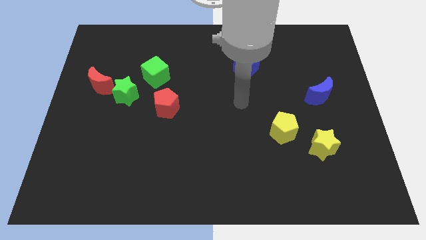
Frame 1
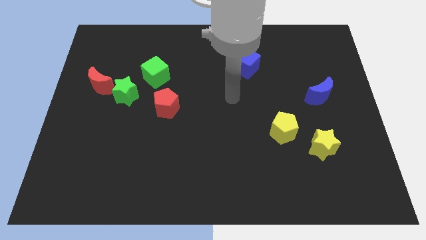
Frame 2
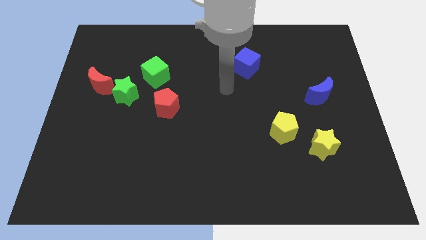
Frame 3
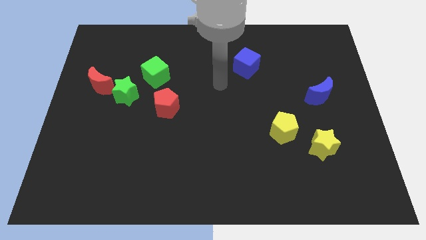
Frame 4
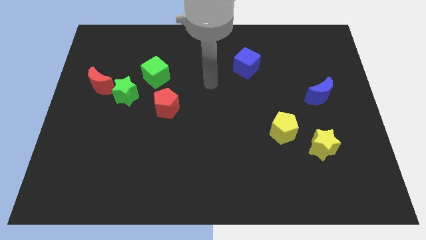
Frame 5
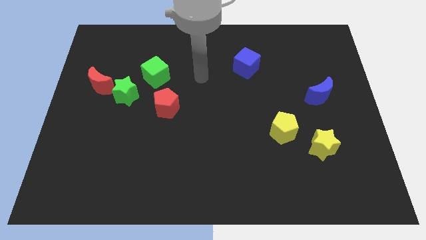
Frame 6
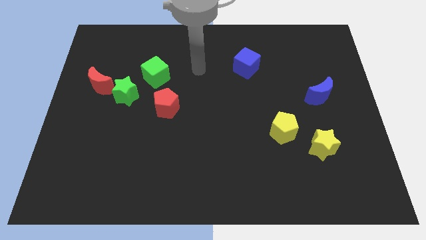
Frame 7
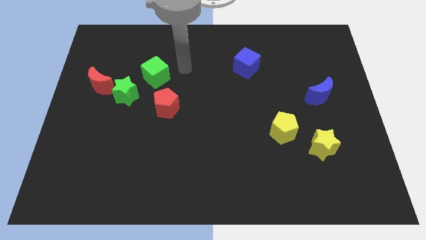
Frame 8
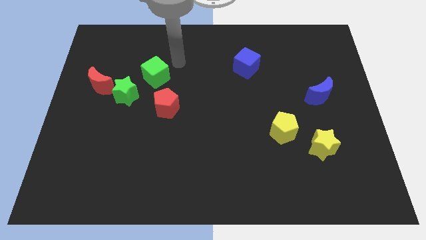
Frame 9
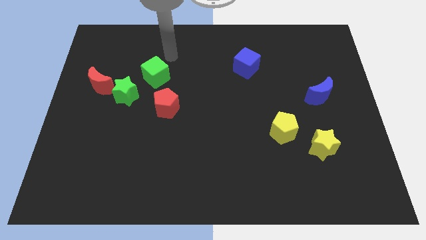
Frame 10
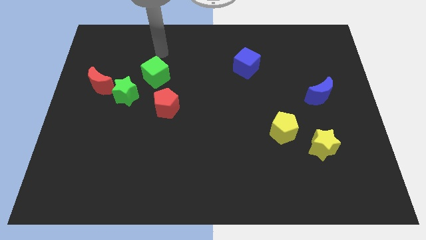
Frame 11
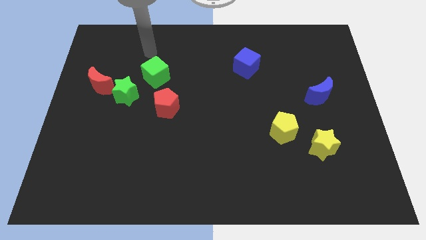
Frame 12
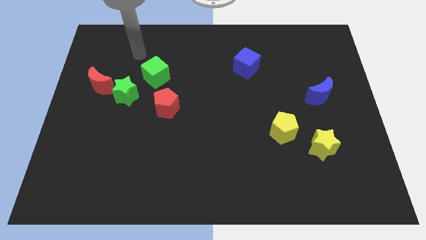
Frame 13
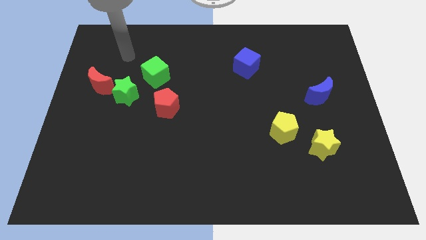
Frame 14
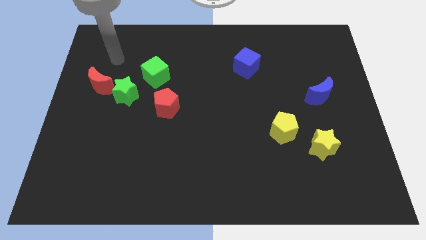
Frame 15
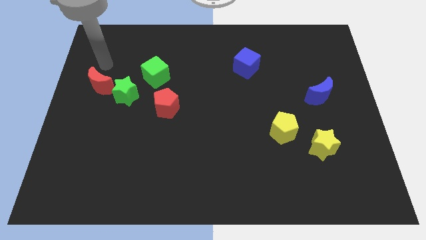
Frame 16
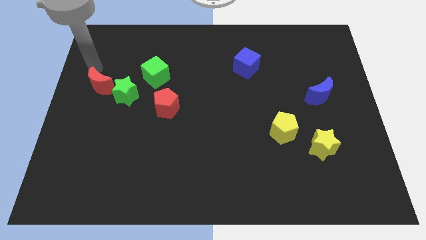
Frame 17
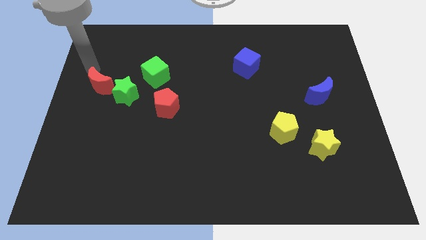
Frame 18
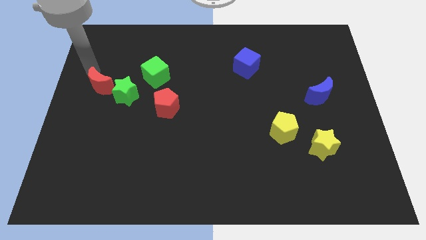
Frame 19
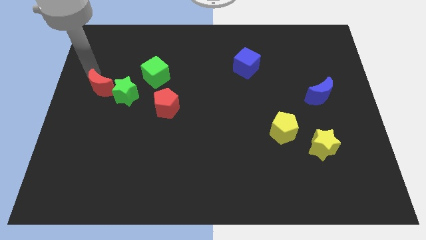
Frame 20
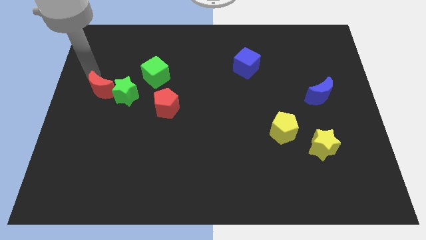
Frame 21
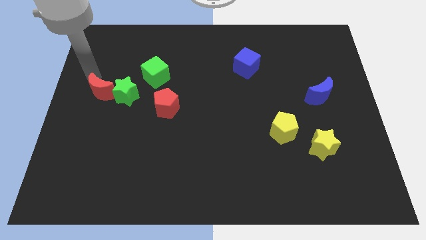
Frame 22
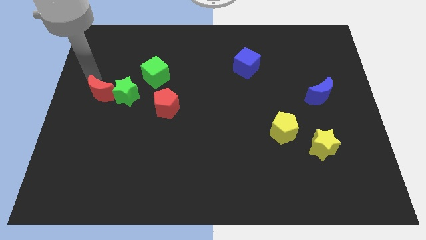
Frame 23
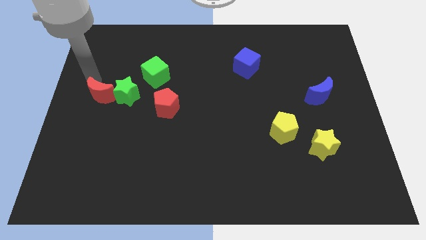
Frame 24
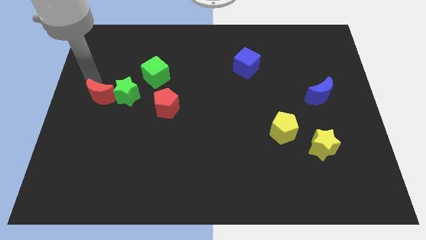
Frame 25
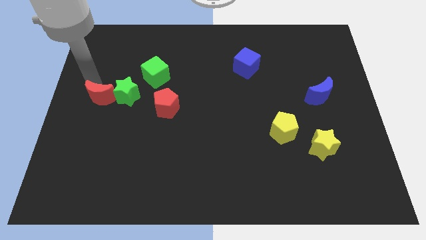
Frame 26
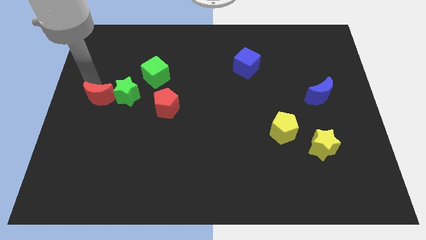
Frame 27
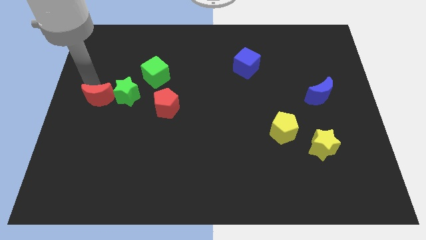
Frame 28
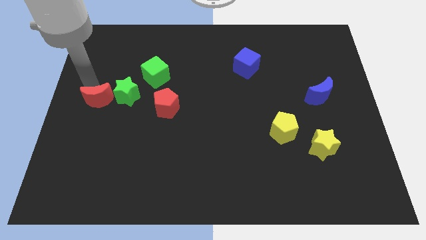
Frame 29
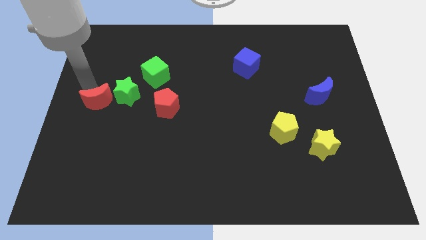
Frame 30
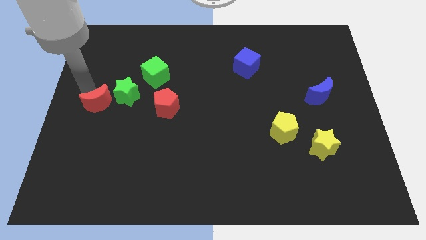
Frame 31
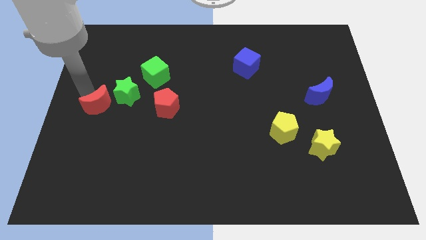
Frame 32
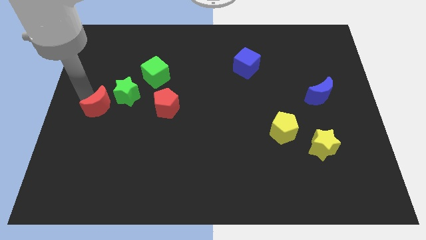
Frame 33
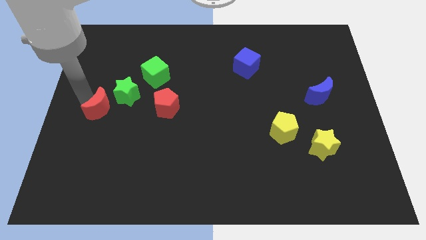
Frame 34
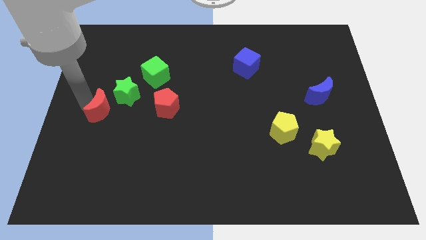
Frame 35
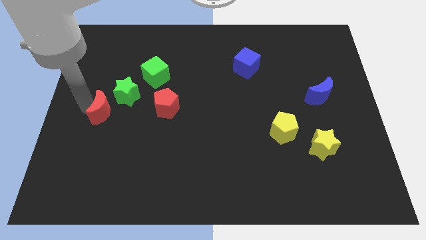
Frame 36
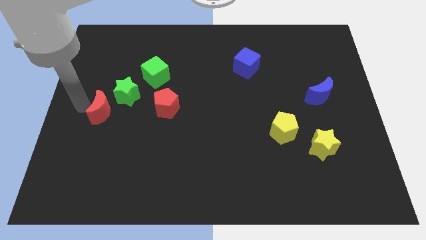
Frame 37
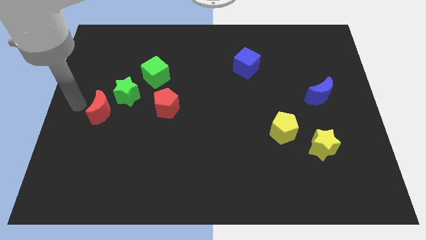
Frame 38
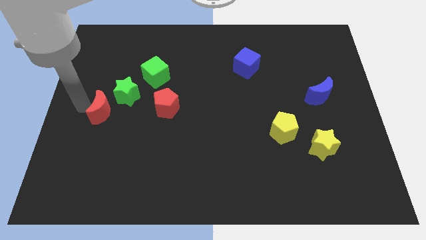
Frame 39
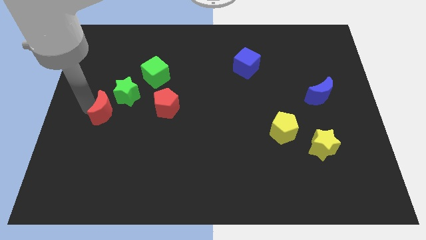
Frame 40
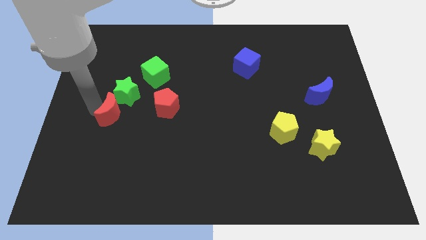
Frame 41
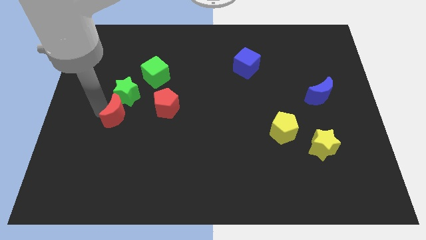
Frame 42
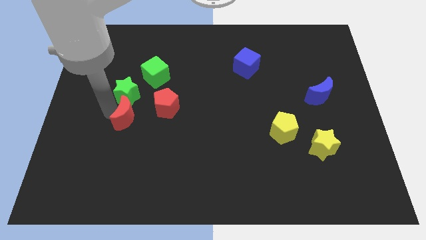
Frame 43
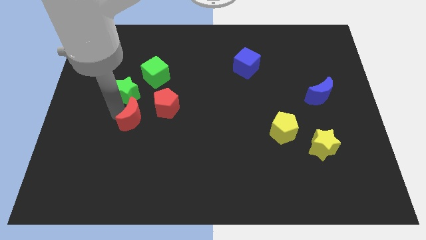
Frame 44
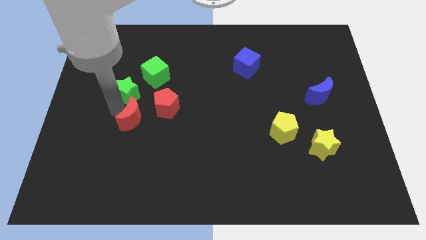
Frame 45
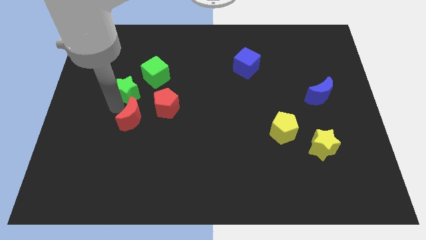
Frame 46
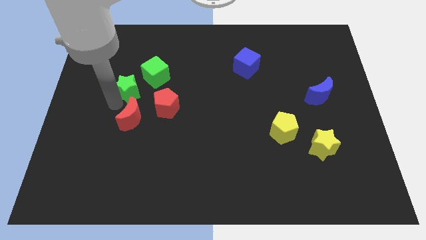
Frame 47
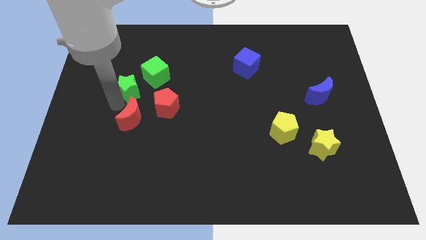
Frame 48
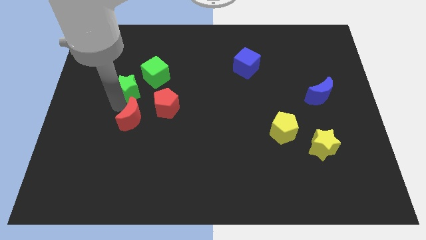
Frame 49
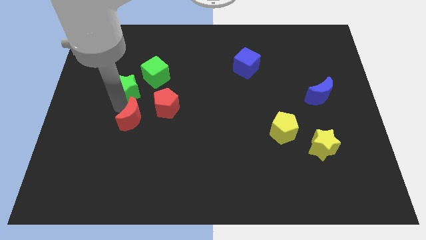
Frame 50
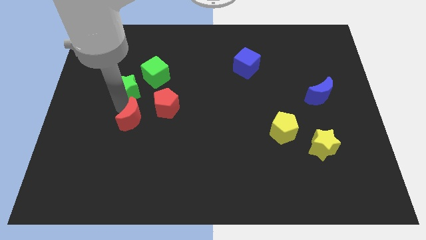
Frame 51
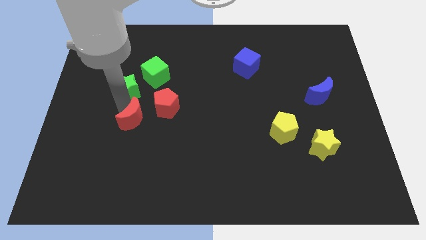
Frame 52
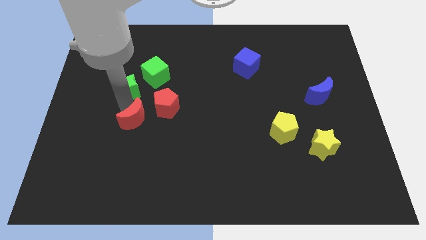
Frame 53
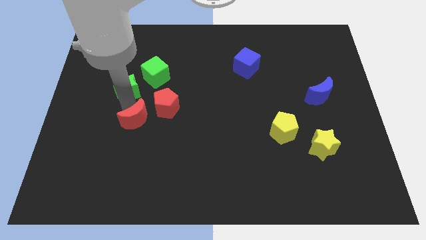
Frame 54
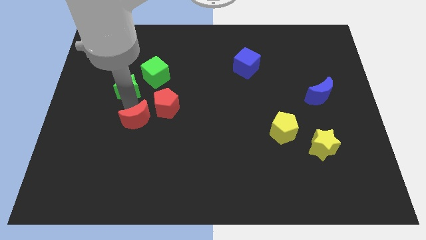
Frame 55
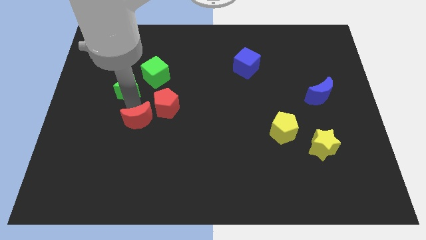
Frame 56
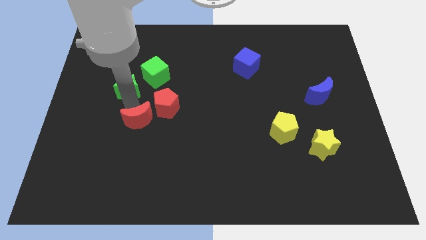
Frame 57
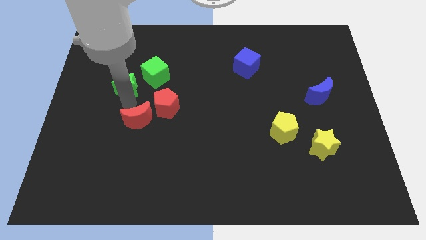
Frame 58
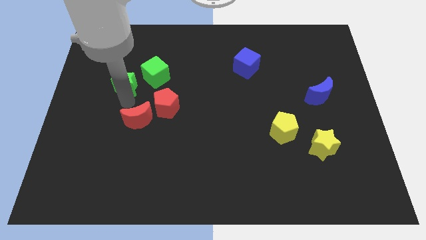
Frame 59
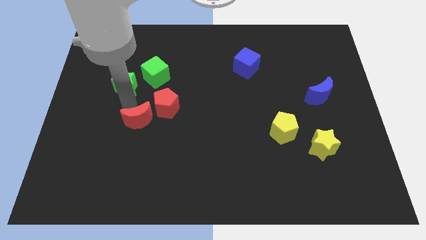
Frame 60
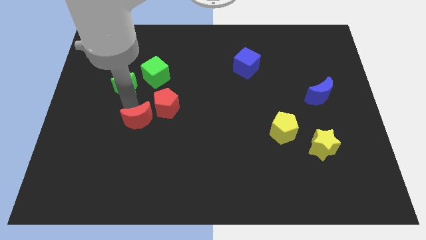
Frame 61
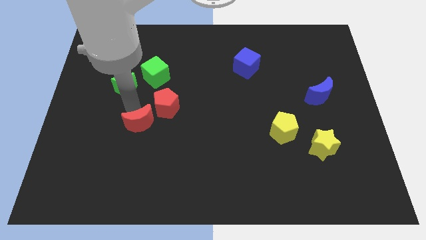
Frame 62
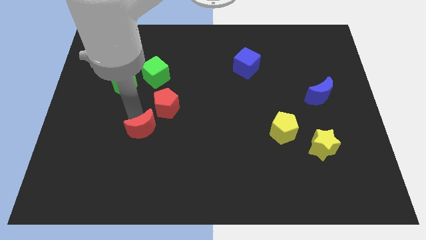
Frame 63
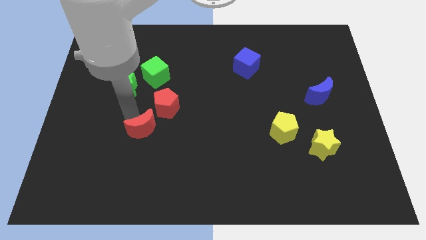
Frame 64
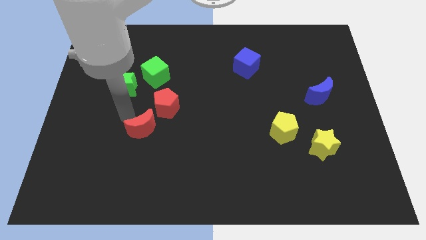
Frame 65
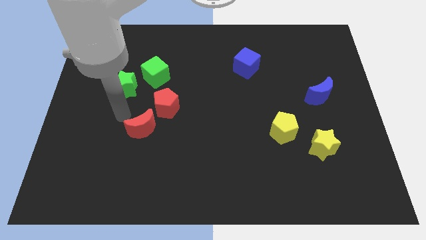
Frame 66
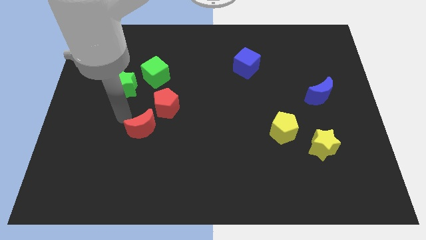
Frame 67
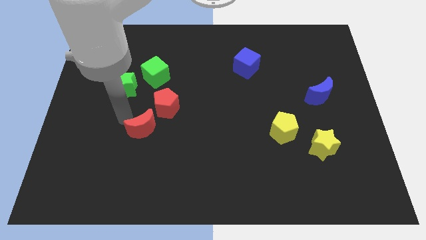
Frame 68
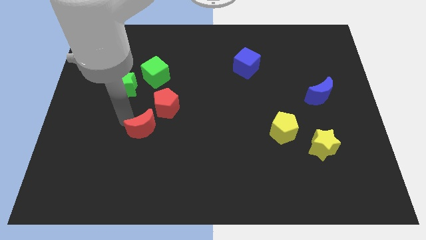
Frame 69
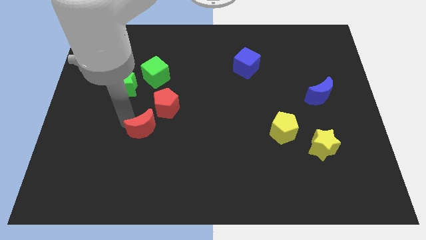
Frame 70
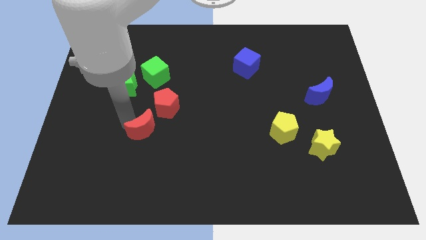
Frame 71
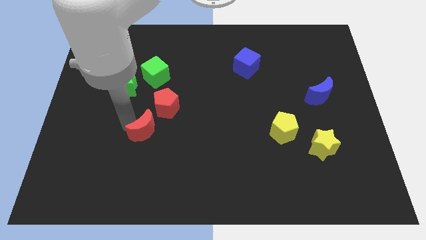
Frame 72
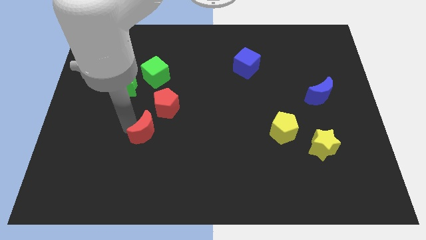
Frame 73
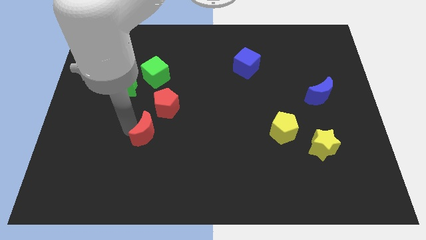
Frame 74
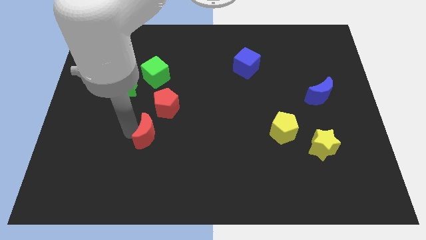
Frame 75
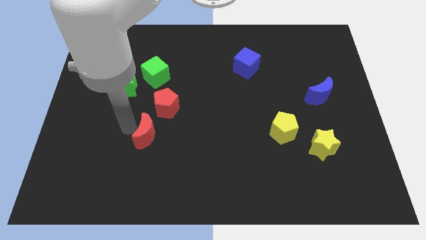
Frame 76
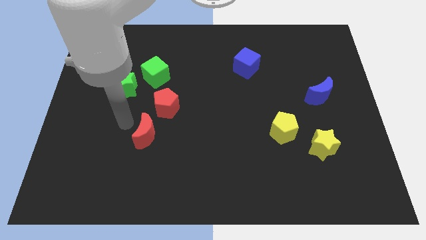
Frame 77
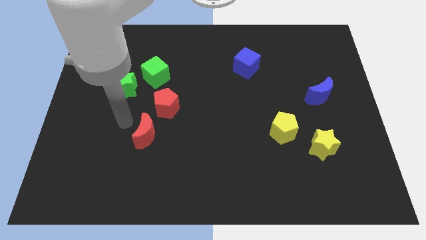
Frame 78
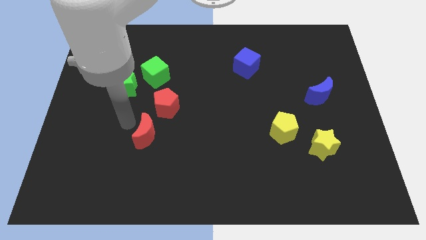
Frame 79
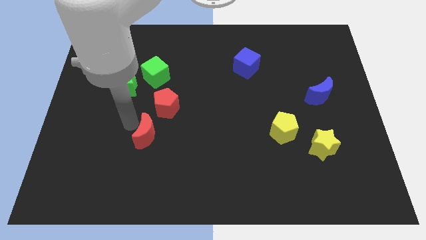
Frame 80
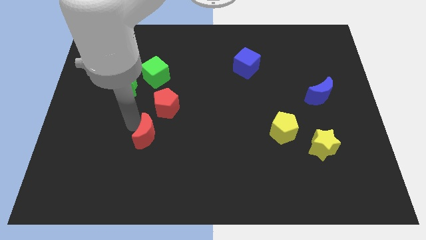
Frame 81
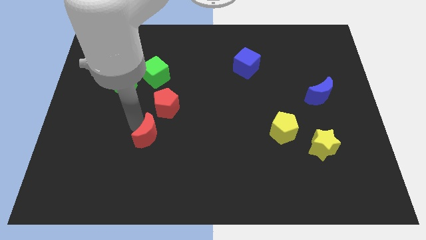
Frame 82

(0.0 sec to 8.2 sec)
slide the red moon diagonally down and right

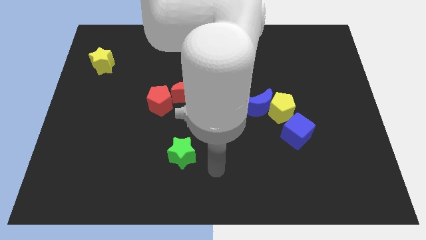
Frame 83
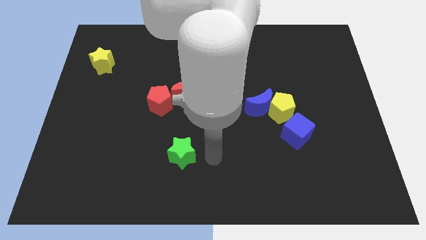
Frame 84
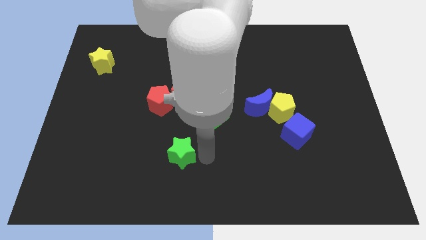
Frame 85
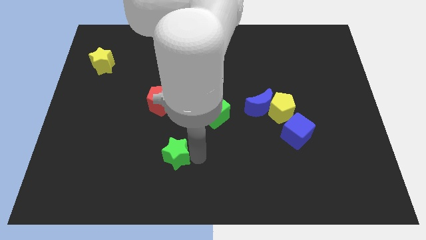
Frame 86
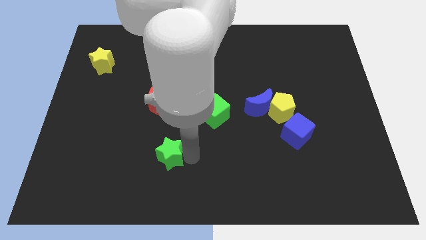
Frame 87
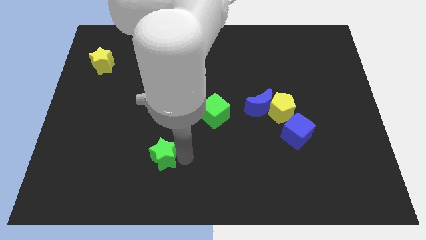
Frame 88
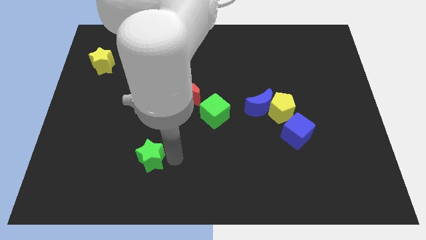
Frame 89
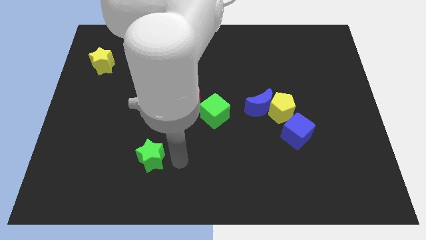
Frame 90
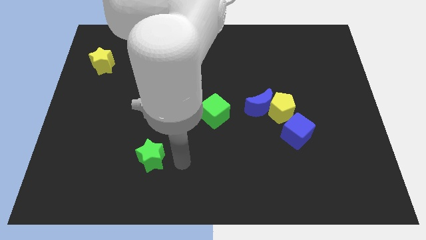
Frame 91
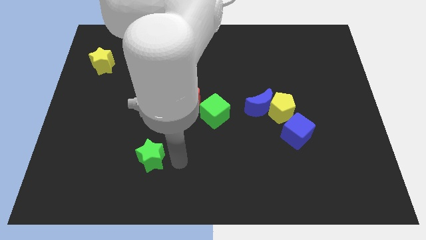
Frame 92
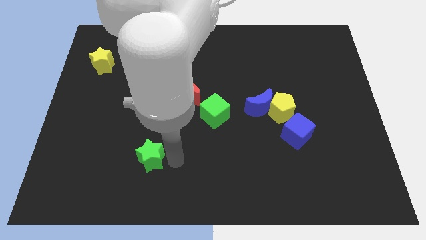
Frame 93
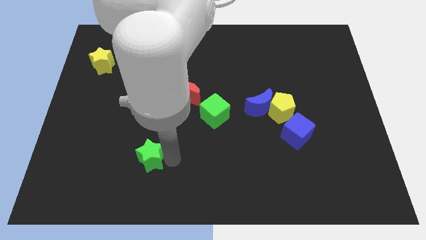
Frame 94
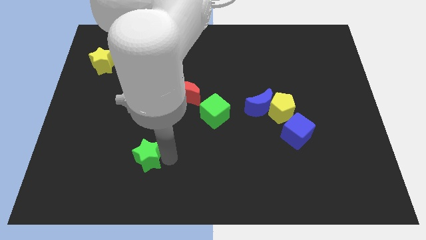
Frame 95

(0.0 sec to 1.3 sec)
slide the green star a bit to the left
